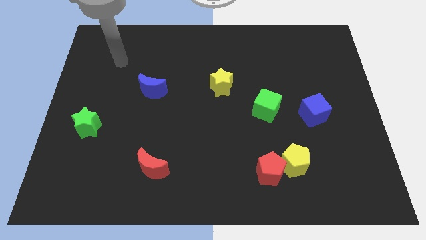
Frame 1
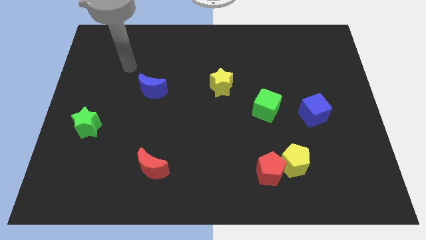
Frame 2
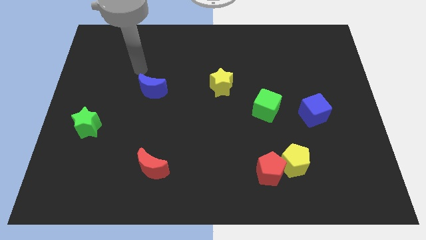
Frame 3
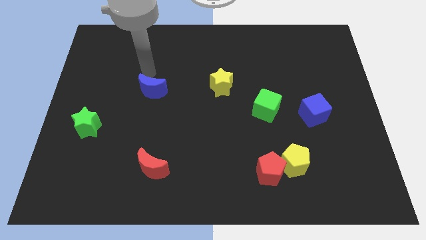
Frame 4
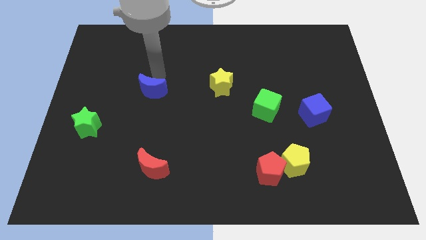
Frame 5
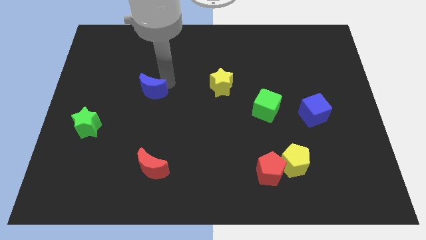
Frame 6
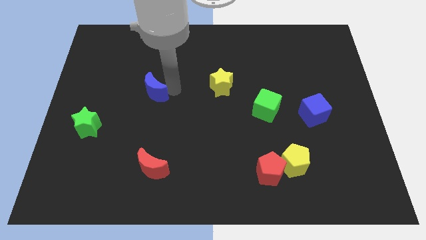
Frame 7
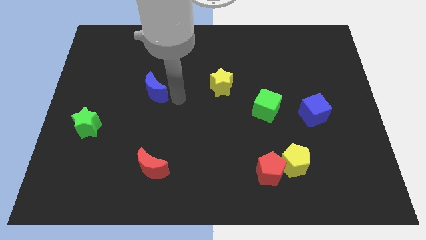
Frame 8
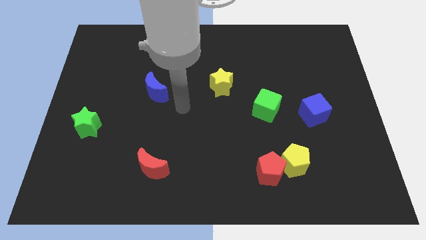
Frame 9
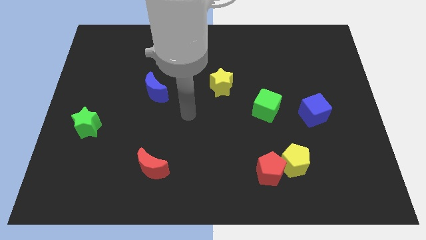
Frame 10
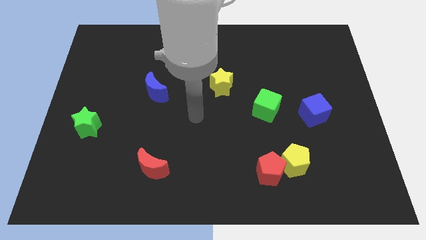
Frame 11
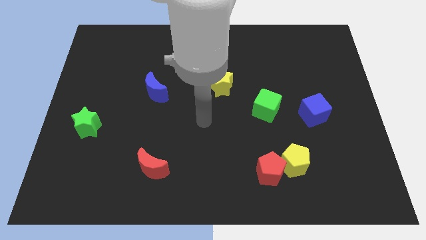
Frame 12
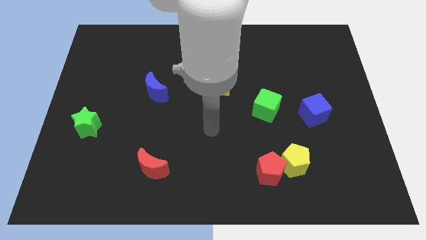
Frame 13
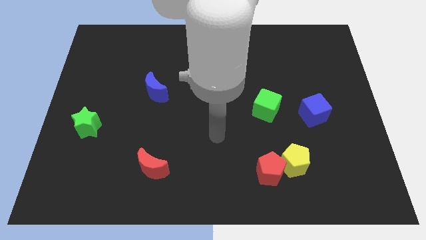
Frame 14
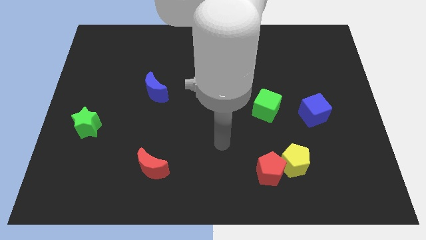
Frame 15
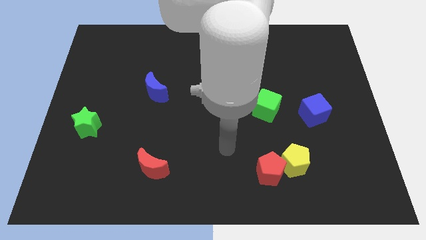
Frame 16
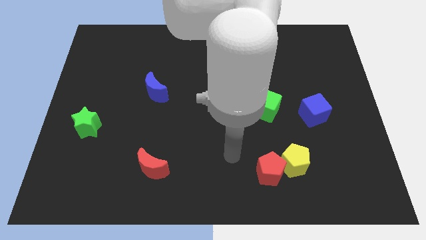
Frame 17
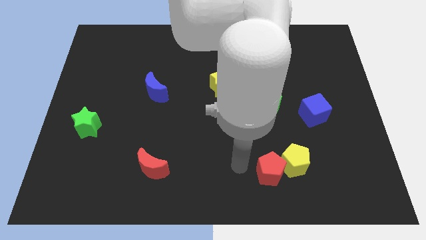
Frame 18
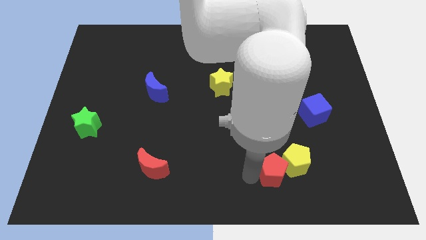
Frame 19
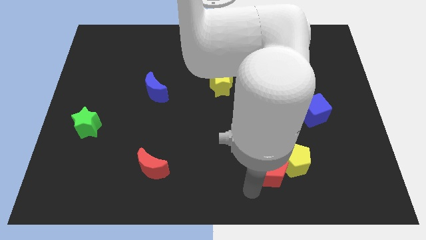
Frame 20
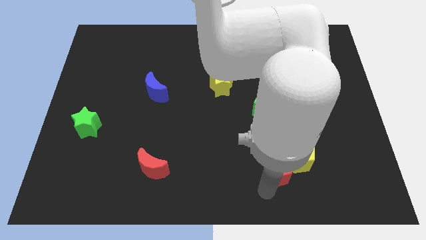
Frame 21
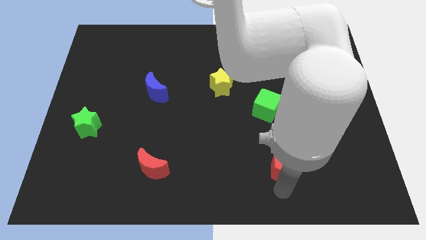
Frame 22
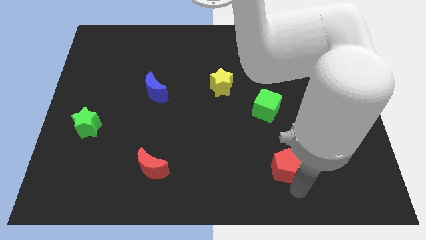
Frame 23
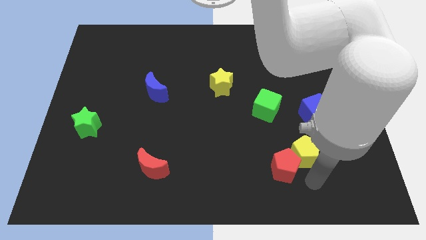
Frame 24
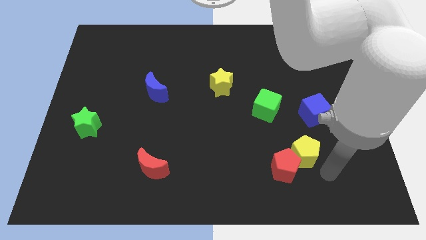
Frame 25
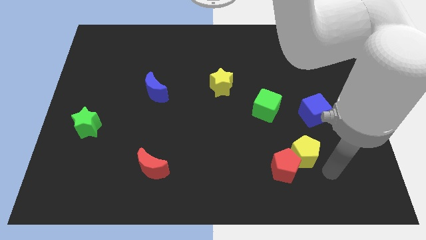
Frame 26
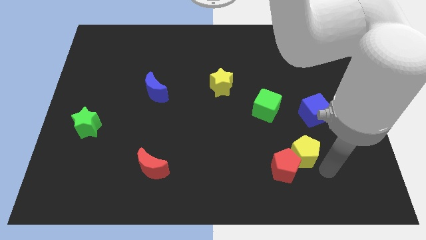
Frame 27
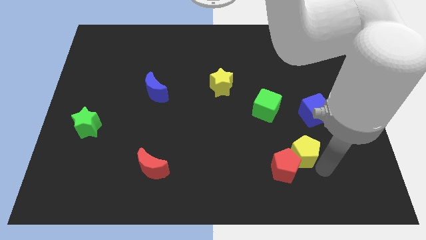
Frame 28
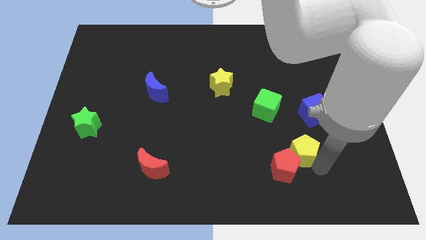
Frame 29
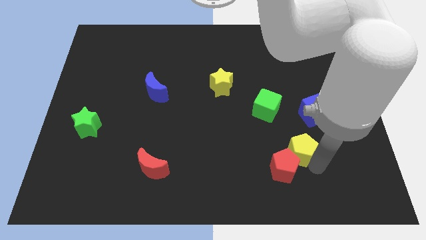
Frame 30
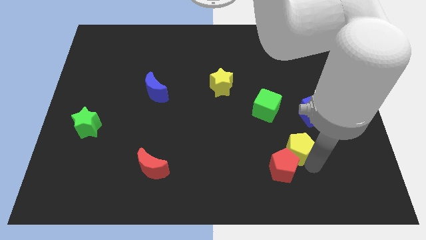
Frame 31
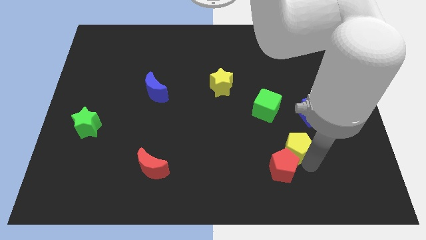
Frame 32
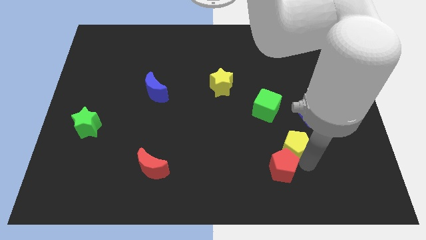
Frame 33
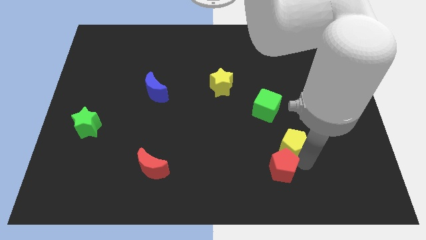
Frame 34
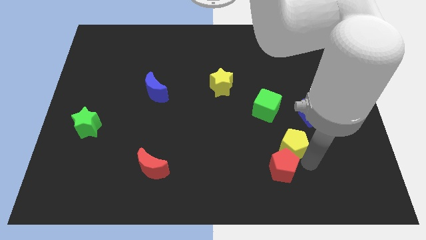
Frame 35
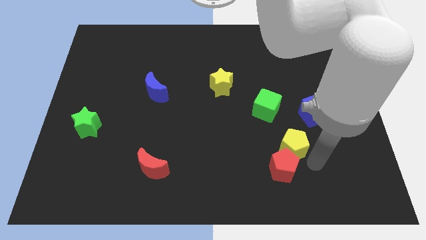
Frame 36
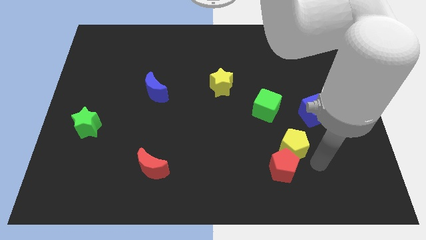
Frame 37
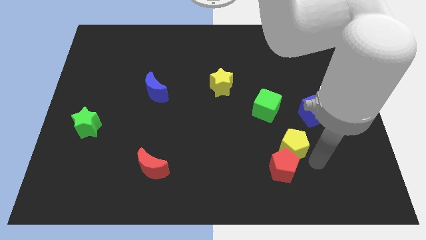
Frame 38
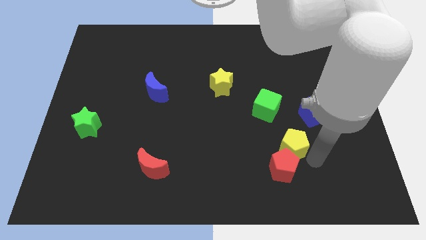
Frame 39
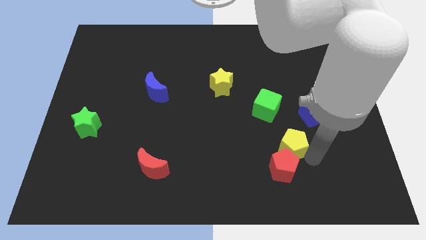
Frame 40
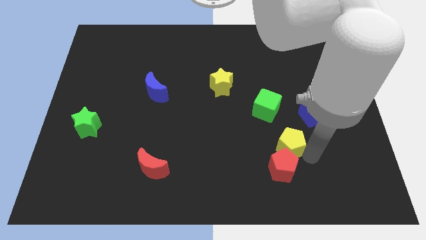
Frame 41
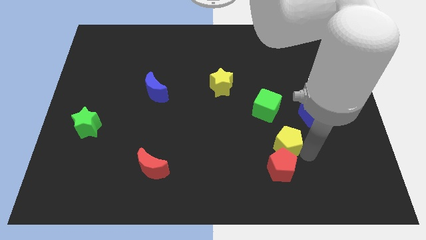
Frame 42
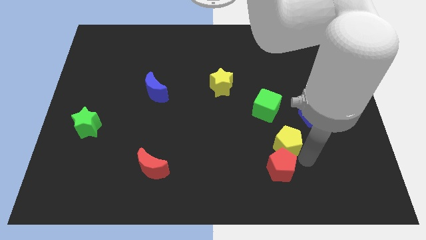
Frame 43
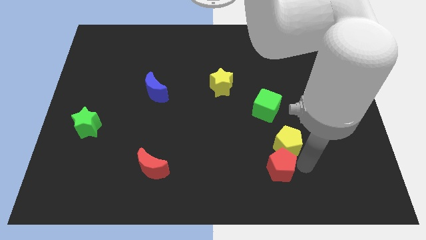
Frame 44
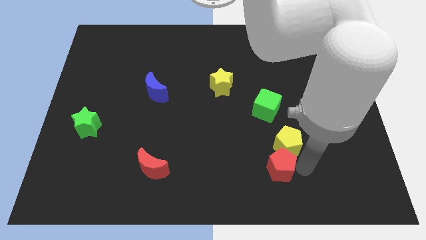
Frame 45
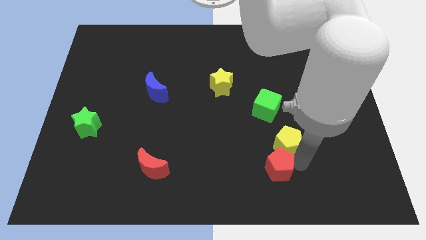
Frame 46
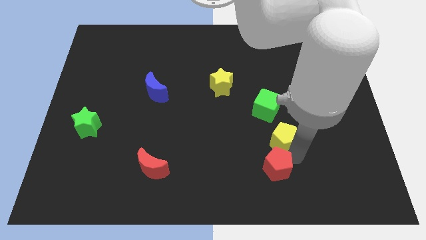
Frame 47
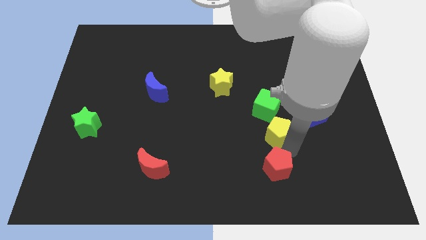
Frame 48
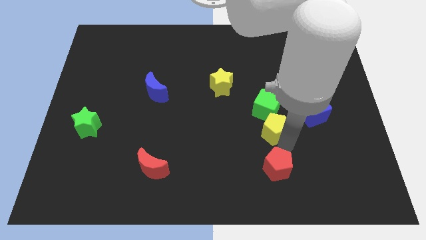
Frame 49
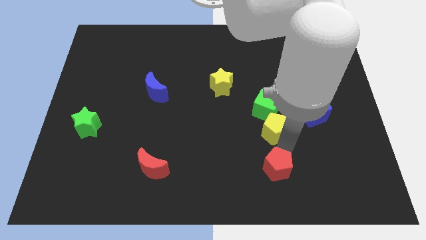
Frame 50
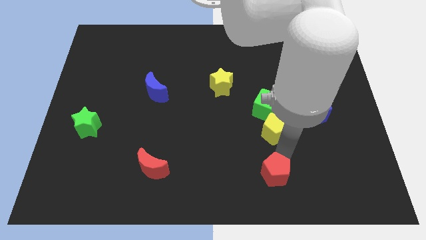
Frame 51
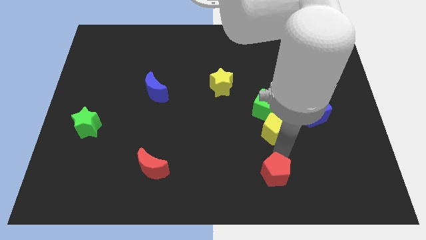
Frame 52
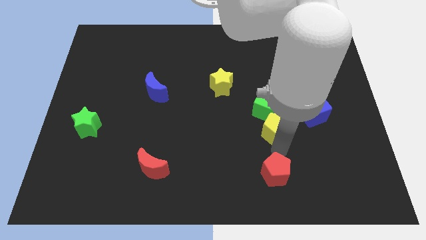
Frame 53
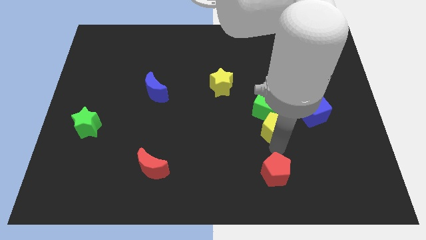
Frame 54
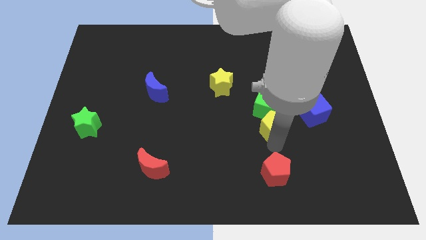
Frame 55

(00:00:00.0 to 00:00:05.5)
move the yellow pentagon close to the green cube

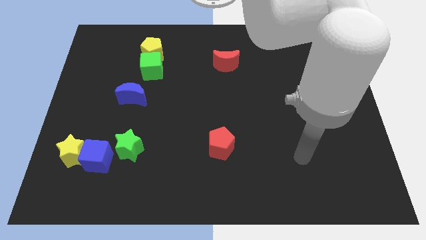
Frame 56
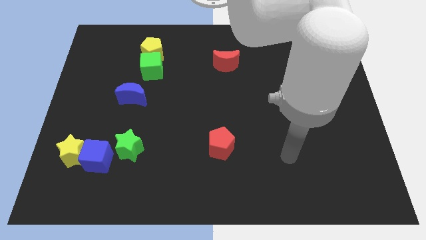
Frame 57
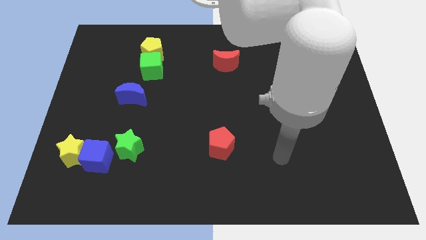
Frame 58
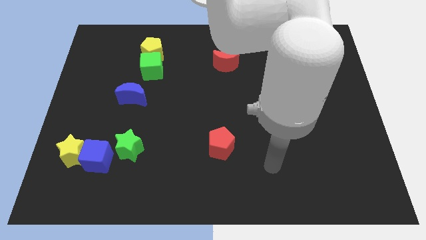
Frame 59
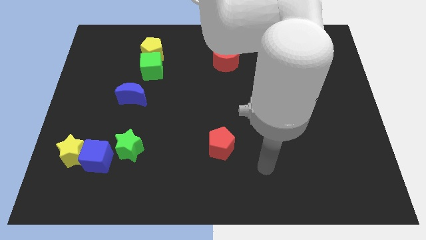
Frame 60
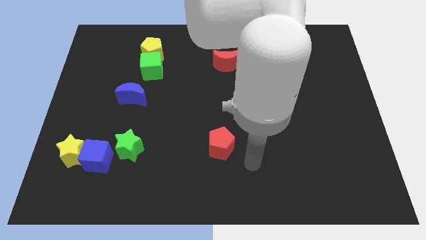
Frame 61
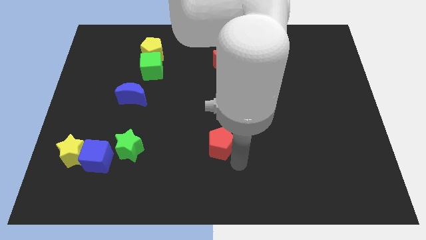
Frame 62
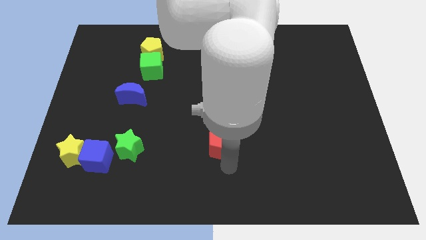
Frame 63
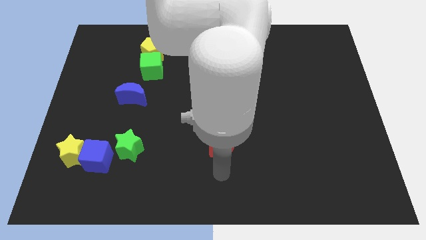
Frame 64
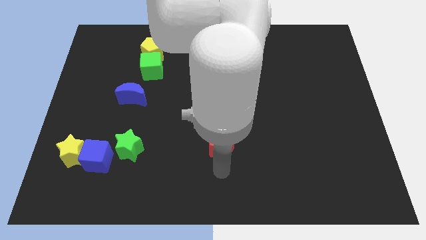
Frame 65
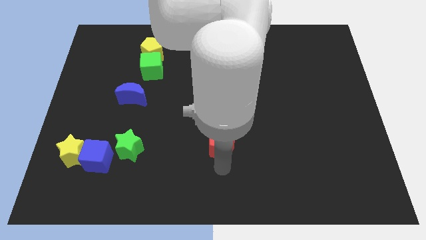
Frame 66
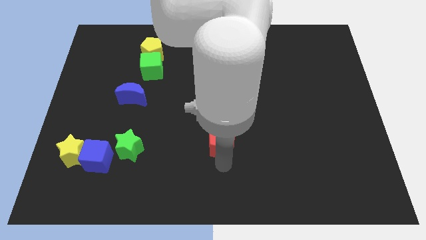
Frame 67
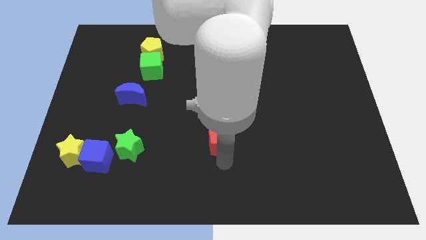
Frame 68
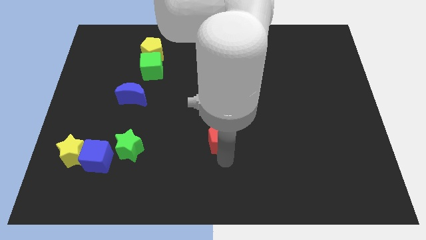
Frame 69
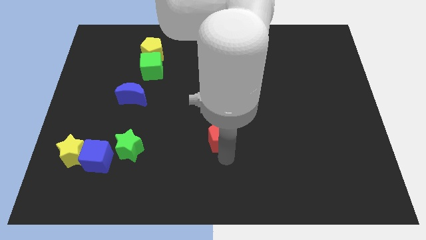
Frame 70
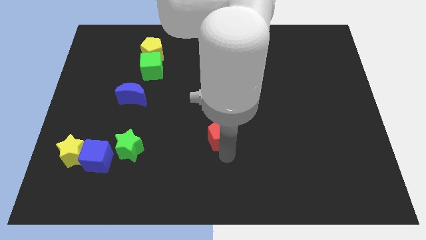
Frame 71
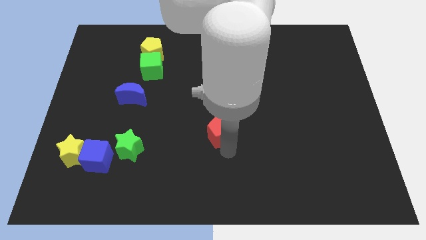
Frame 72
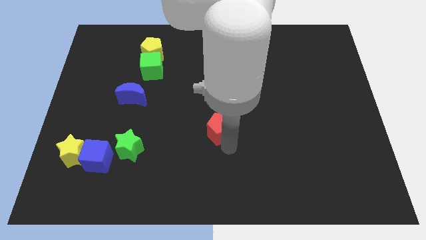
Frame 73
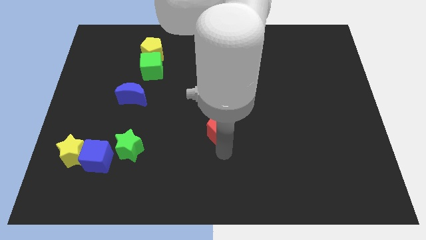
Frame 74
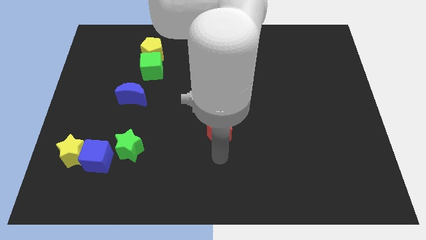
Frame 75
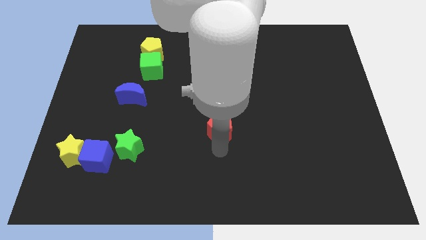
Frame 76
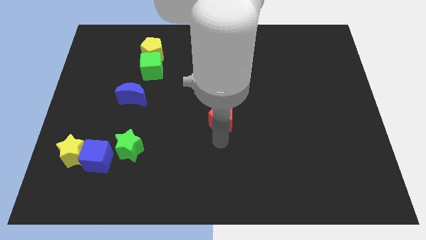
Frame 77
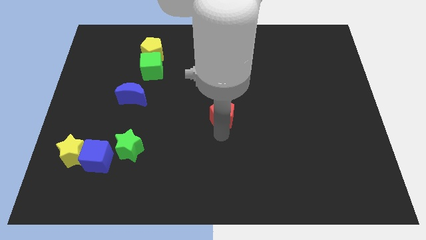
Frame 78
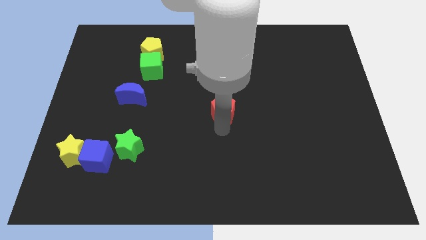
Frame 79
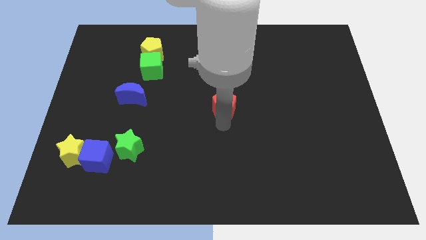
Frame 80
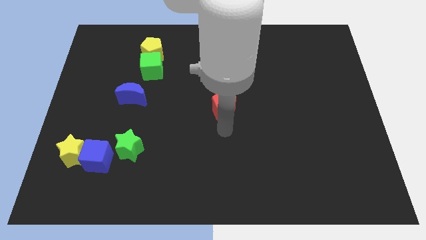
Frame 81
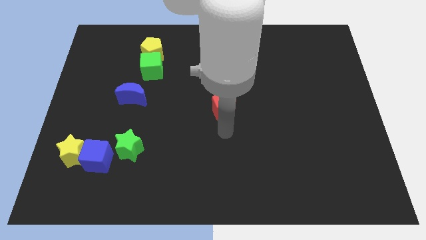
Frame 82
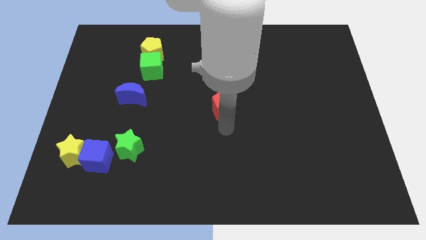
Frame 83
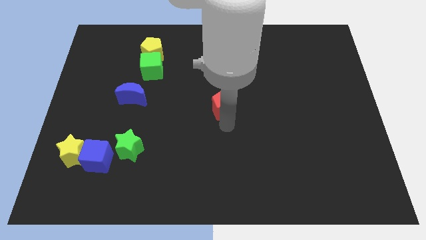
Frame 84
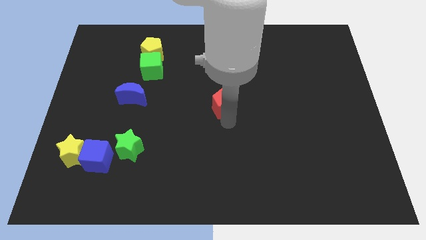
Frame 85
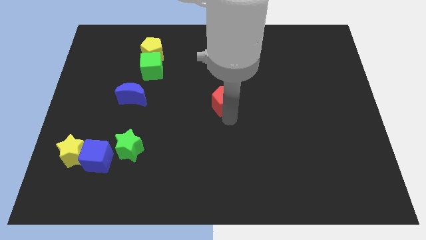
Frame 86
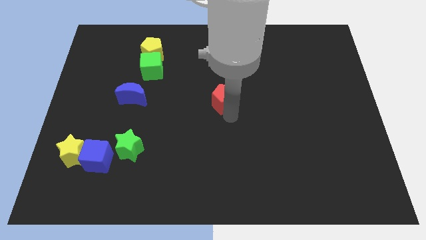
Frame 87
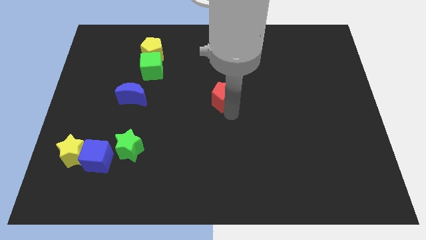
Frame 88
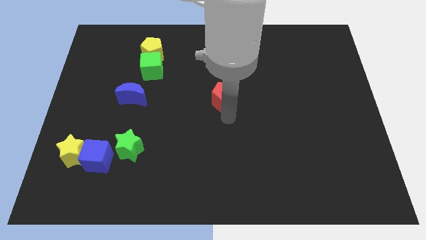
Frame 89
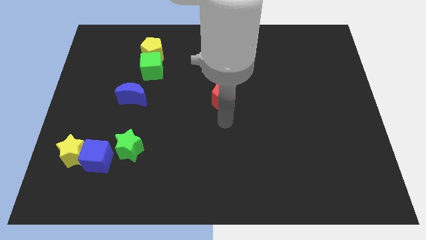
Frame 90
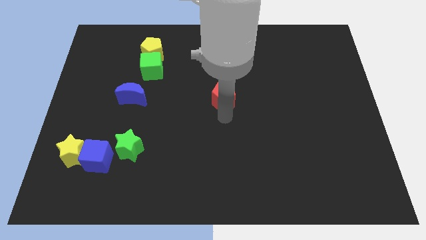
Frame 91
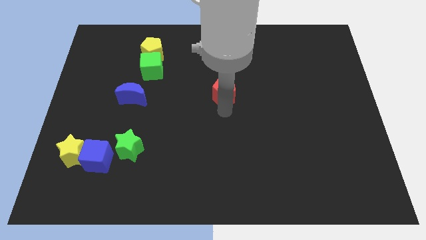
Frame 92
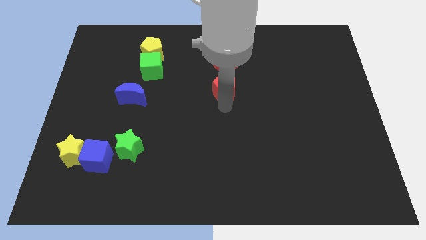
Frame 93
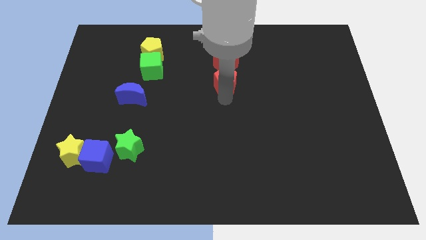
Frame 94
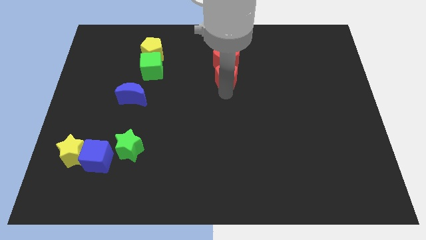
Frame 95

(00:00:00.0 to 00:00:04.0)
put the red pentagon towards the red moon
